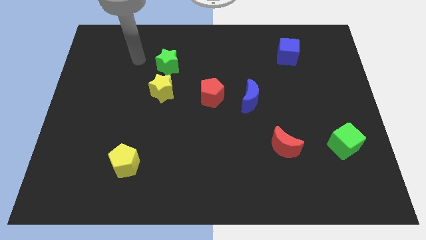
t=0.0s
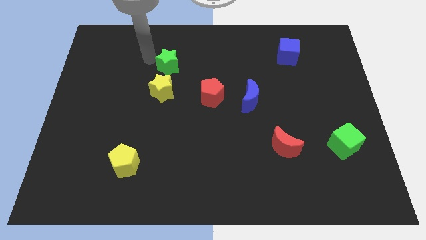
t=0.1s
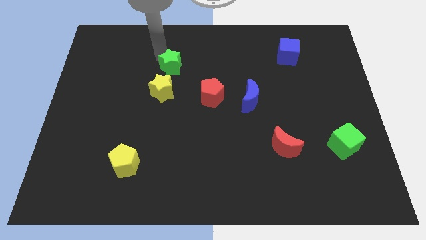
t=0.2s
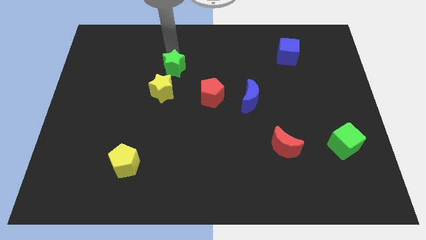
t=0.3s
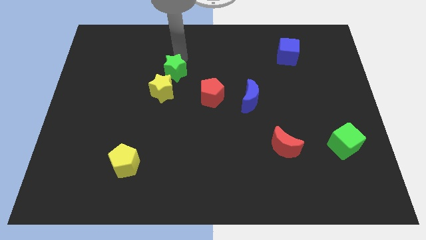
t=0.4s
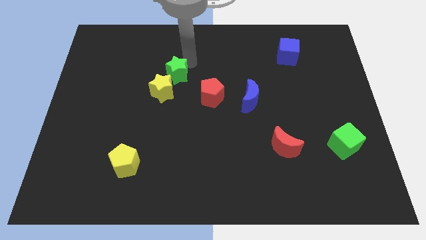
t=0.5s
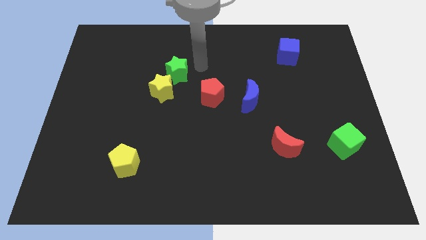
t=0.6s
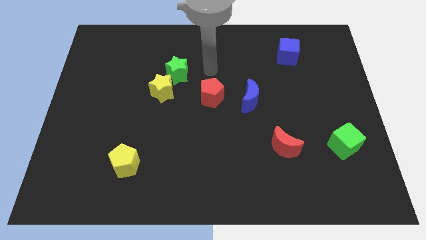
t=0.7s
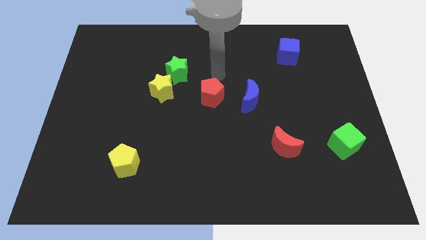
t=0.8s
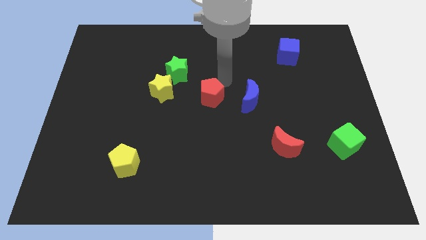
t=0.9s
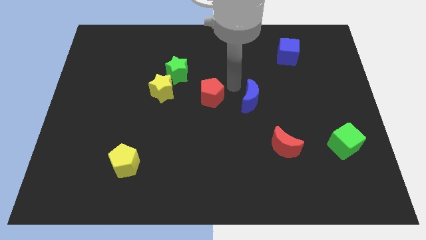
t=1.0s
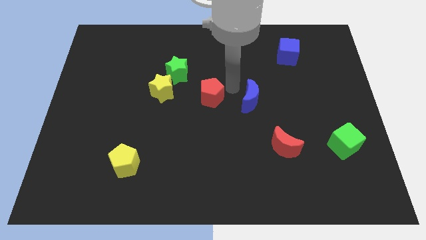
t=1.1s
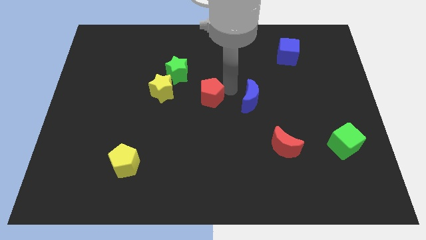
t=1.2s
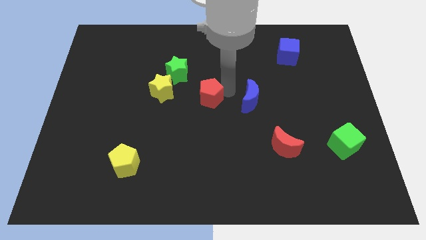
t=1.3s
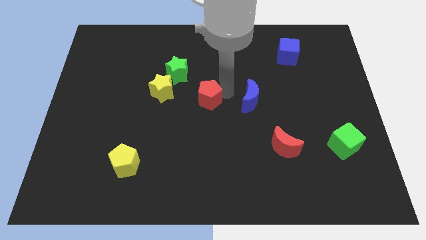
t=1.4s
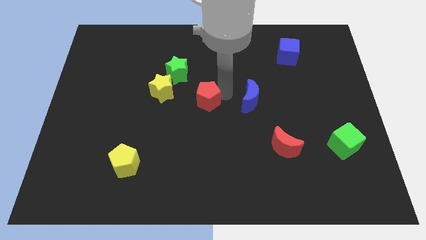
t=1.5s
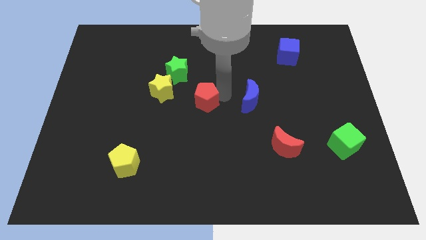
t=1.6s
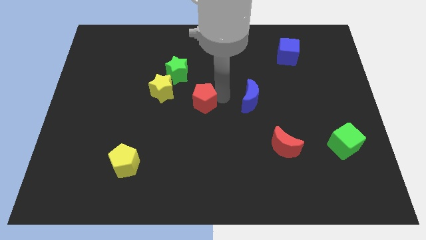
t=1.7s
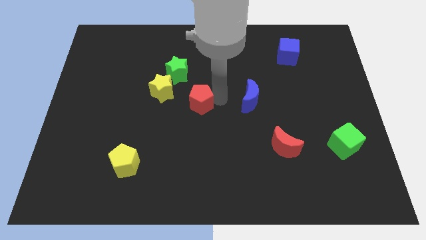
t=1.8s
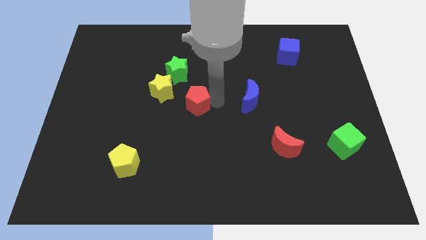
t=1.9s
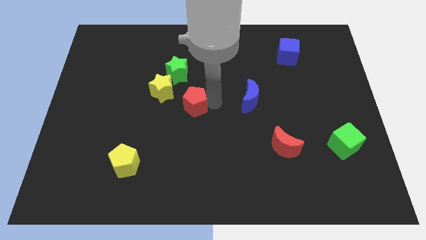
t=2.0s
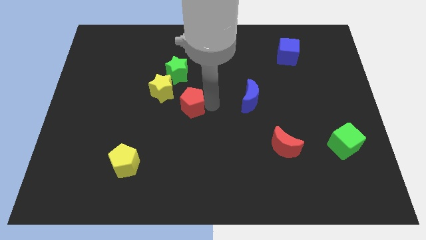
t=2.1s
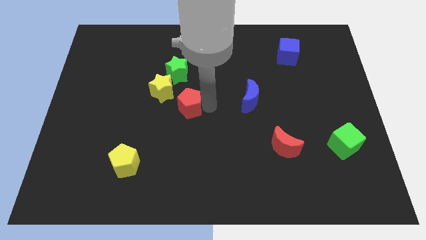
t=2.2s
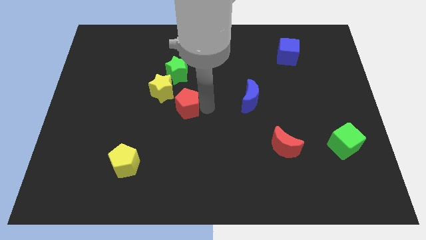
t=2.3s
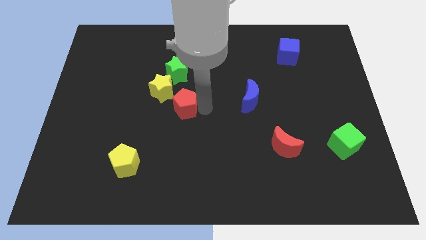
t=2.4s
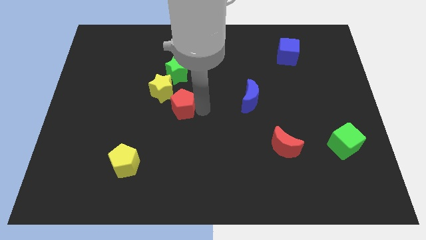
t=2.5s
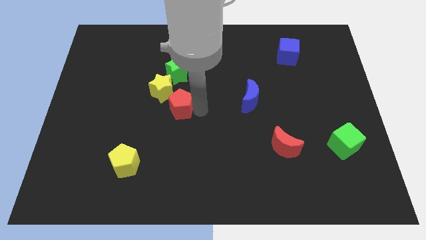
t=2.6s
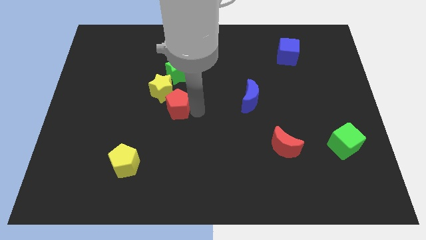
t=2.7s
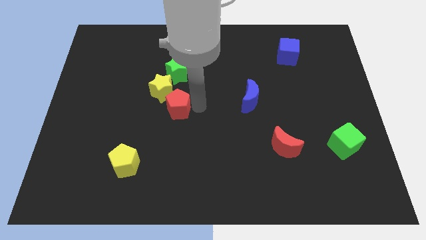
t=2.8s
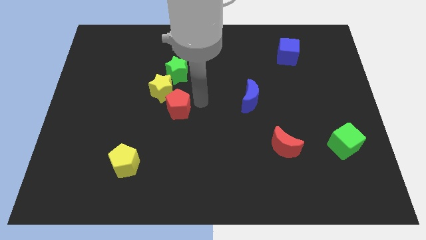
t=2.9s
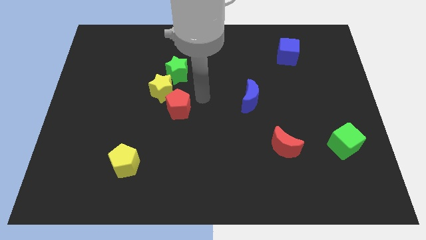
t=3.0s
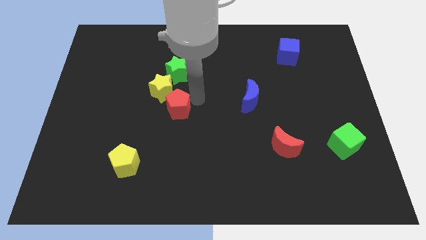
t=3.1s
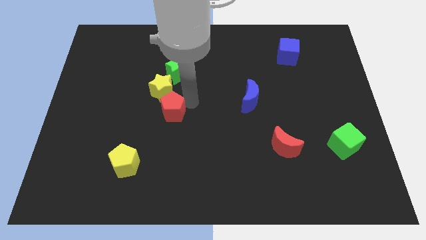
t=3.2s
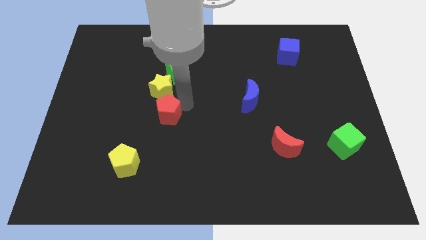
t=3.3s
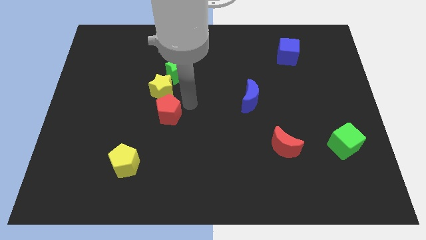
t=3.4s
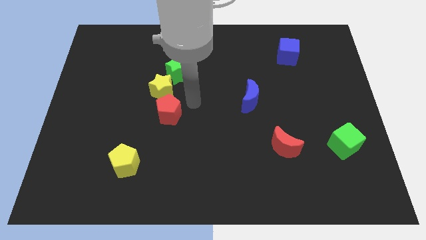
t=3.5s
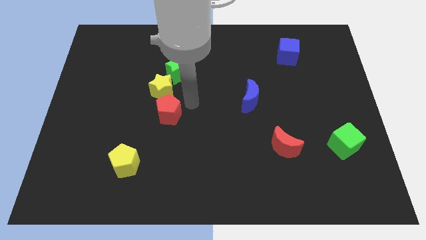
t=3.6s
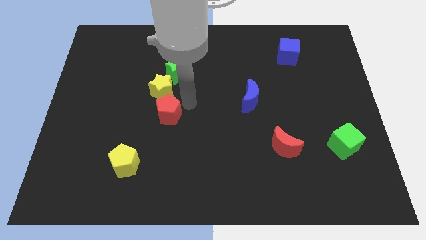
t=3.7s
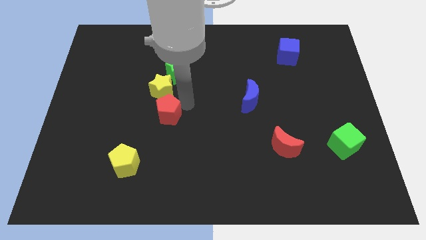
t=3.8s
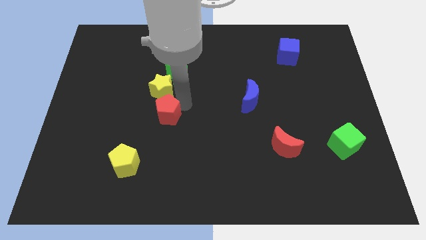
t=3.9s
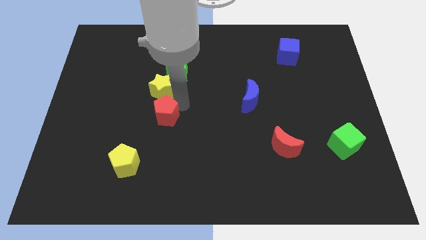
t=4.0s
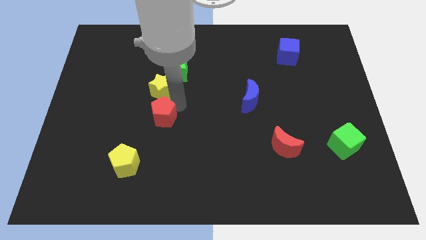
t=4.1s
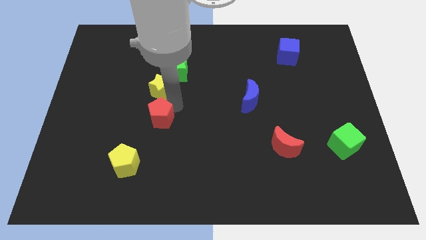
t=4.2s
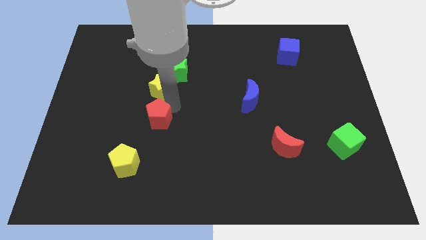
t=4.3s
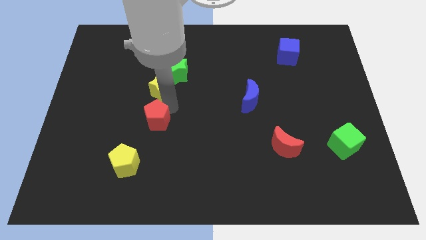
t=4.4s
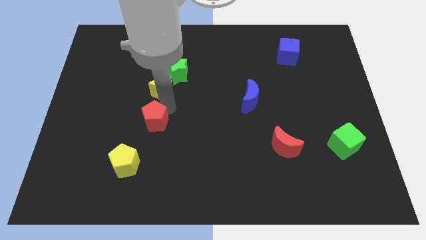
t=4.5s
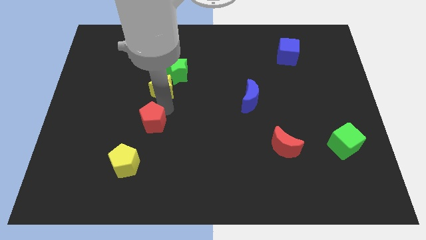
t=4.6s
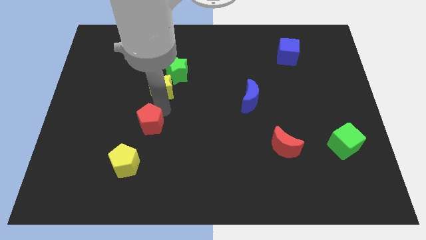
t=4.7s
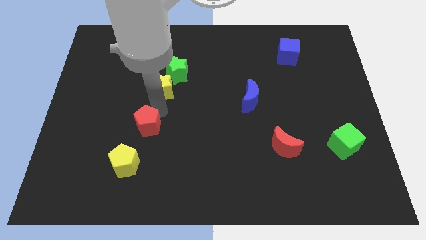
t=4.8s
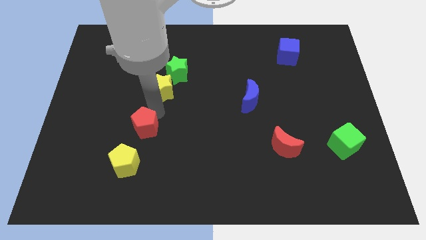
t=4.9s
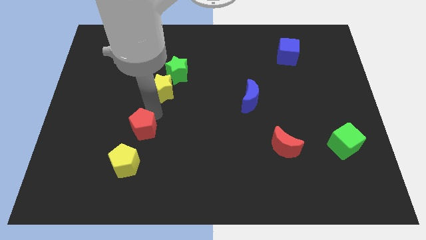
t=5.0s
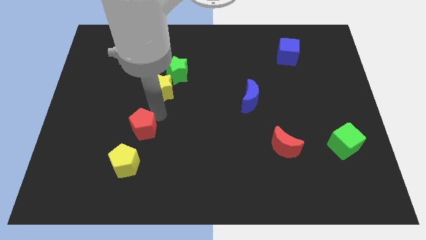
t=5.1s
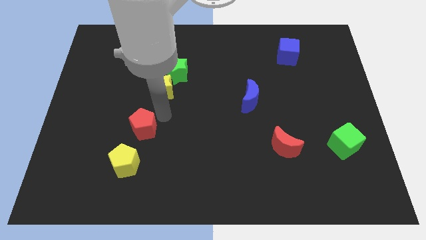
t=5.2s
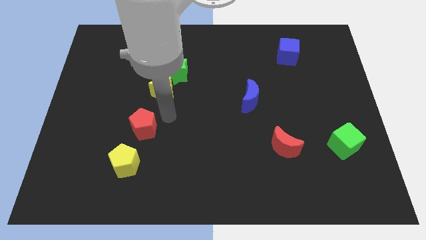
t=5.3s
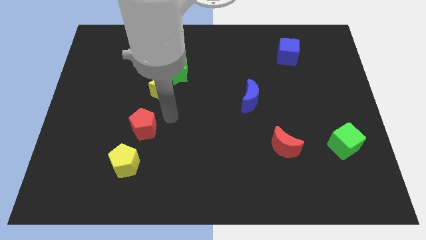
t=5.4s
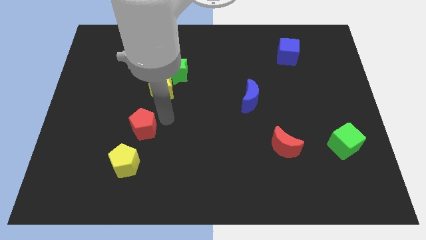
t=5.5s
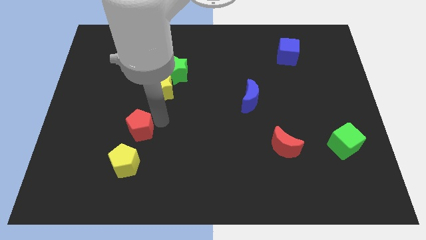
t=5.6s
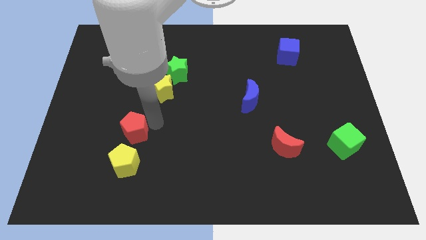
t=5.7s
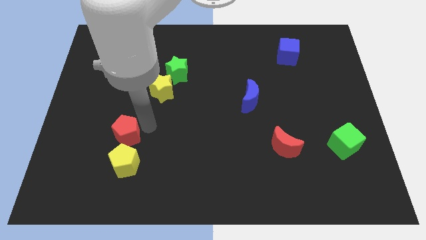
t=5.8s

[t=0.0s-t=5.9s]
put the red pentagon to the top left of the yellow pentagon
